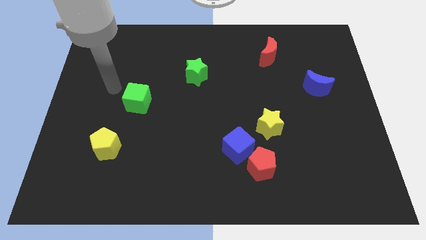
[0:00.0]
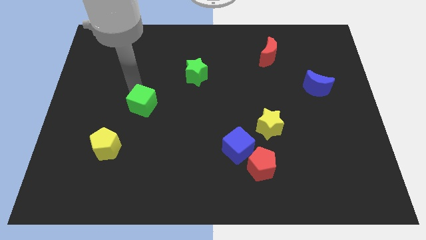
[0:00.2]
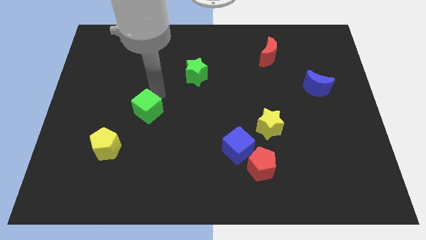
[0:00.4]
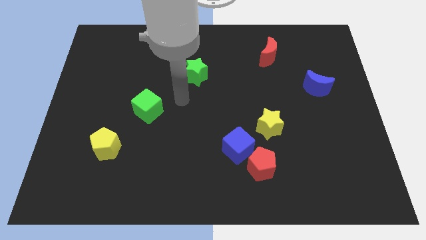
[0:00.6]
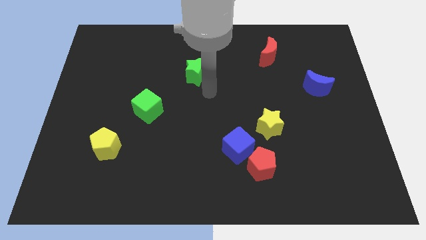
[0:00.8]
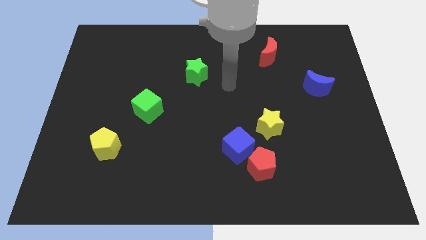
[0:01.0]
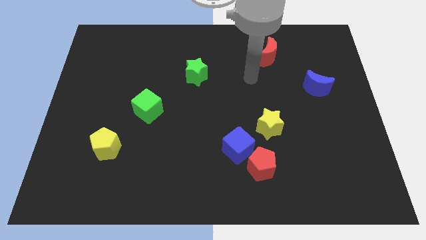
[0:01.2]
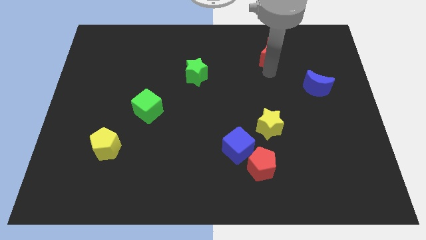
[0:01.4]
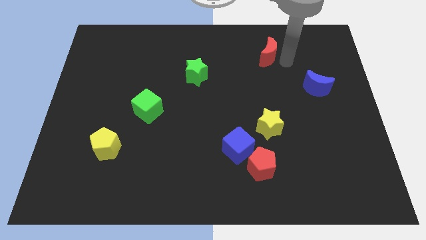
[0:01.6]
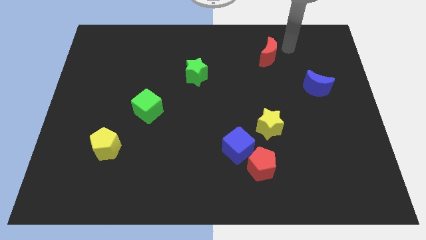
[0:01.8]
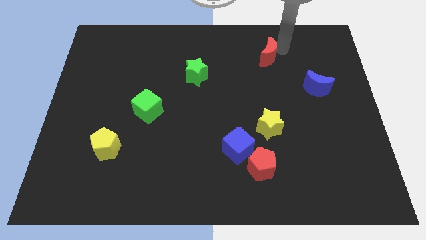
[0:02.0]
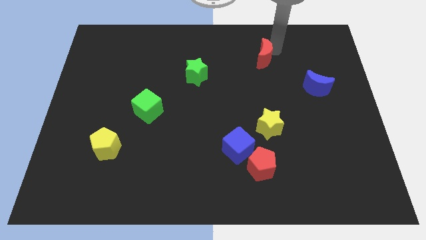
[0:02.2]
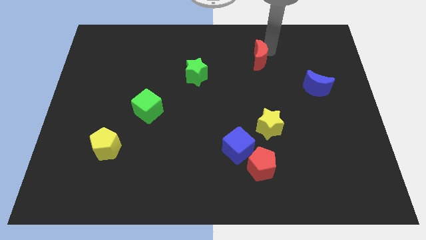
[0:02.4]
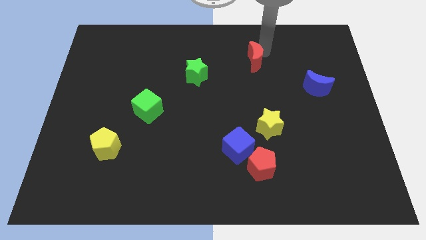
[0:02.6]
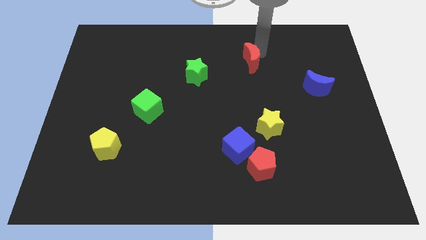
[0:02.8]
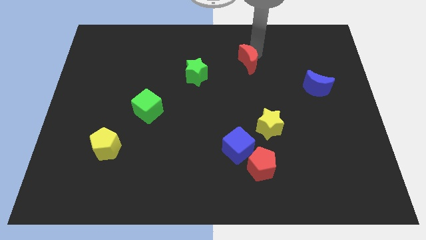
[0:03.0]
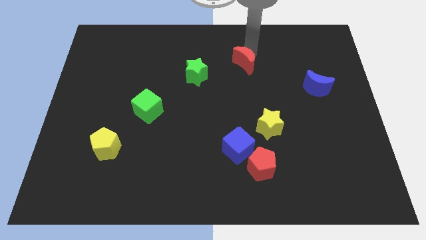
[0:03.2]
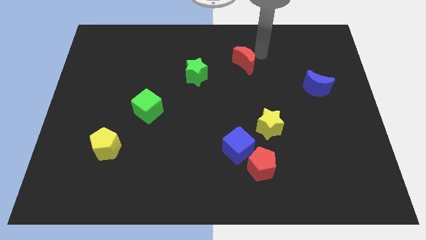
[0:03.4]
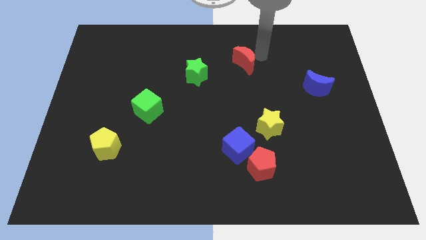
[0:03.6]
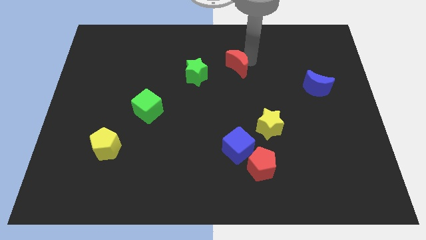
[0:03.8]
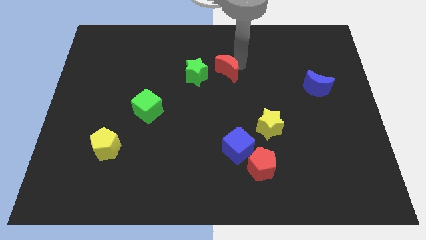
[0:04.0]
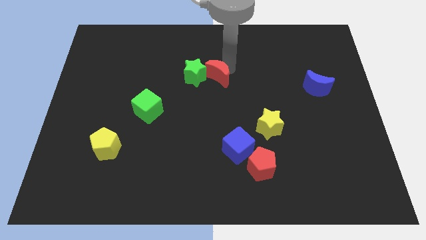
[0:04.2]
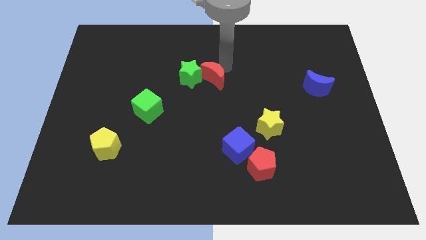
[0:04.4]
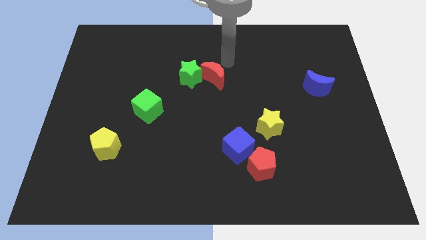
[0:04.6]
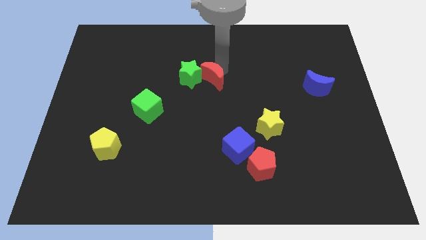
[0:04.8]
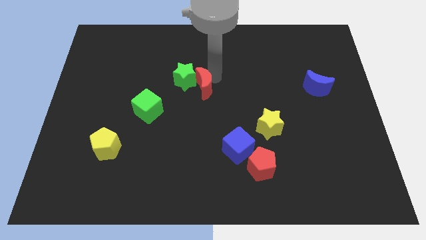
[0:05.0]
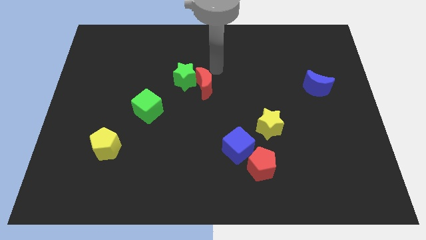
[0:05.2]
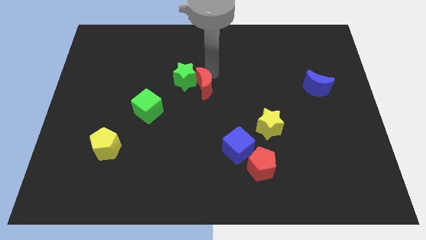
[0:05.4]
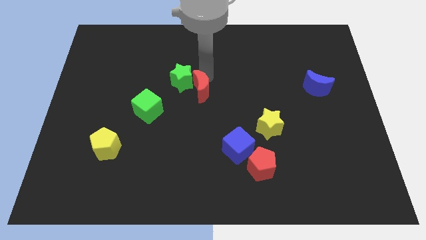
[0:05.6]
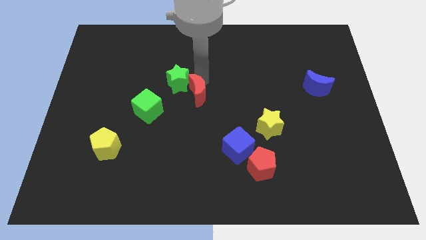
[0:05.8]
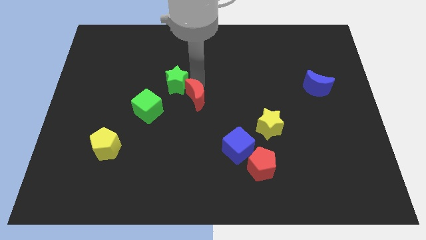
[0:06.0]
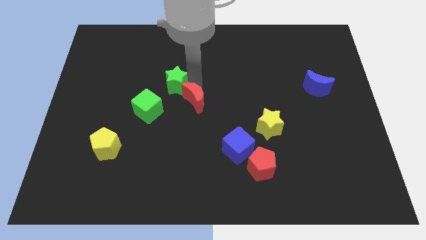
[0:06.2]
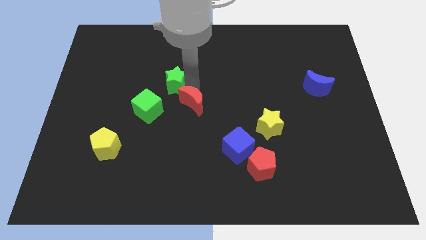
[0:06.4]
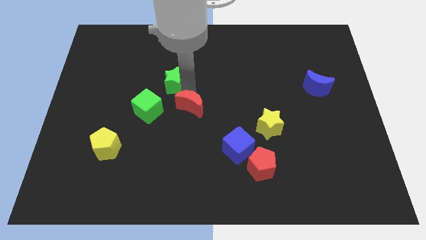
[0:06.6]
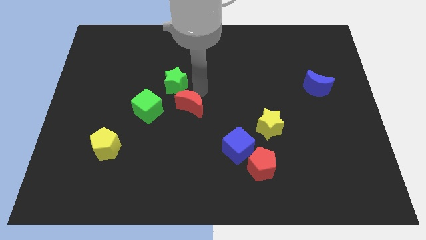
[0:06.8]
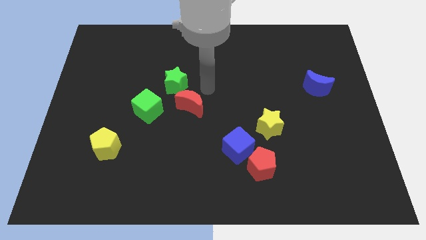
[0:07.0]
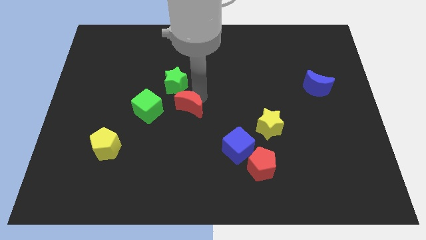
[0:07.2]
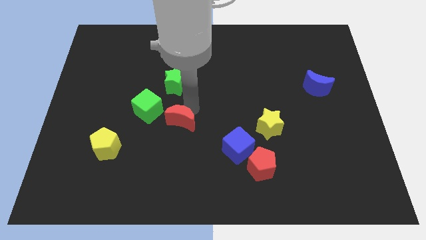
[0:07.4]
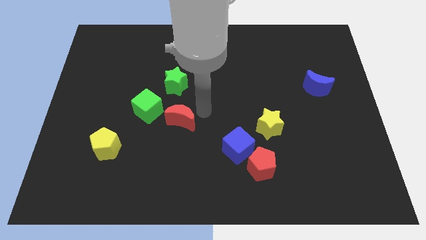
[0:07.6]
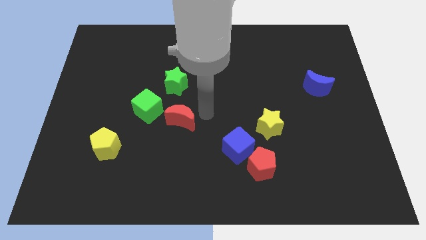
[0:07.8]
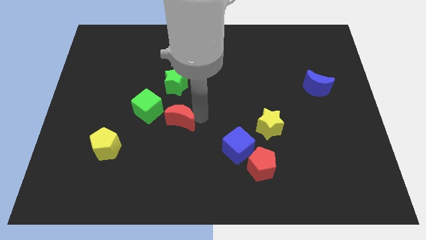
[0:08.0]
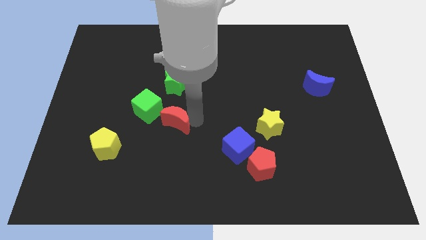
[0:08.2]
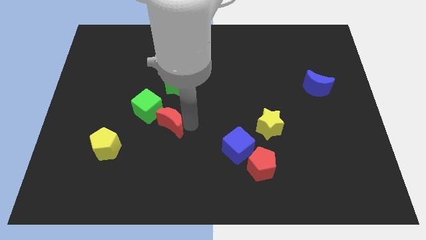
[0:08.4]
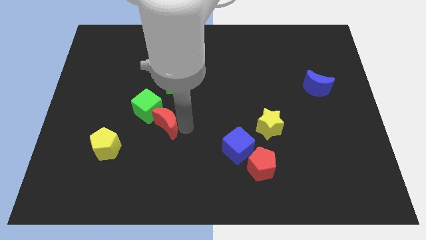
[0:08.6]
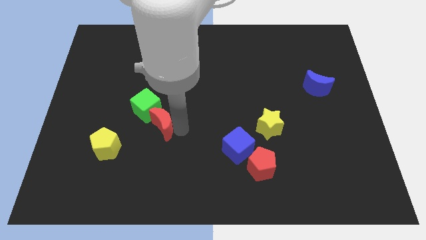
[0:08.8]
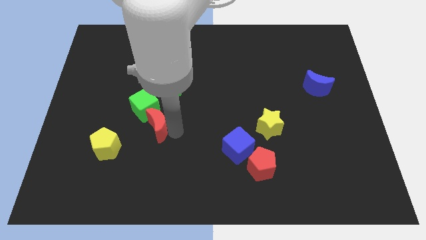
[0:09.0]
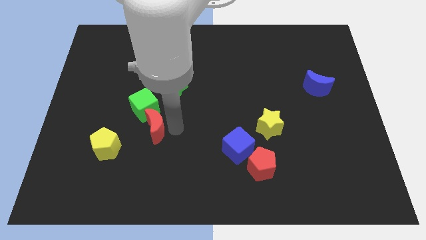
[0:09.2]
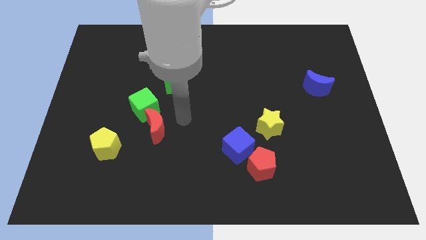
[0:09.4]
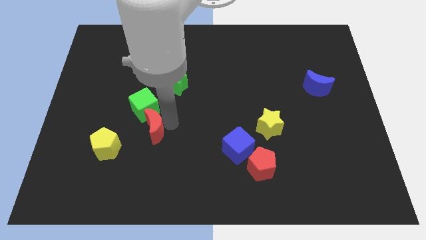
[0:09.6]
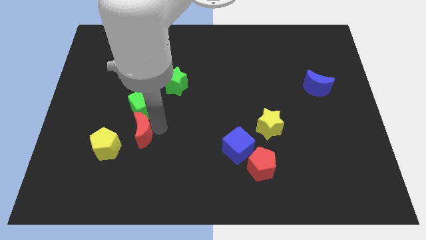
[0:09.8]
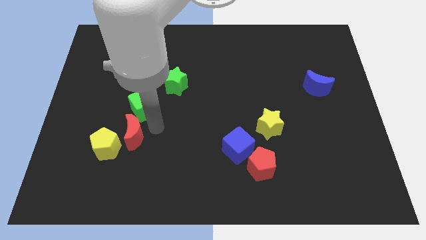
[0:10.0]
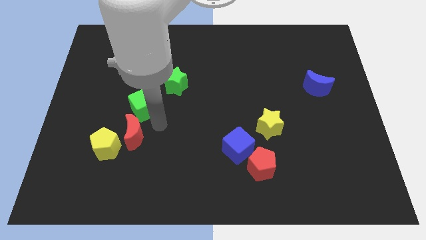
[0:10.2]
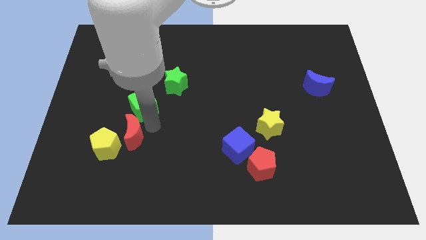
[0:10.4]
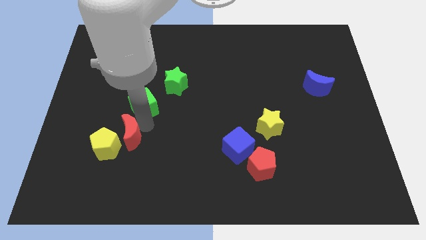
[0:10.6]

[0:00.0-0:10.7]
move the red moon close to the yellow pentagon

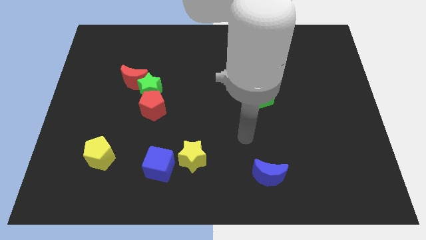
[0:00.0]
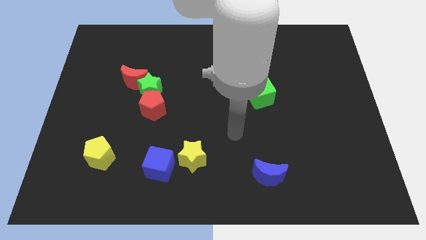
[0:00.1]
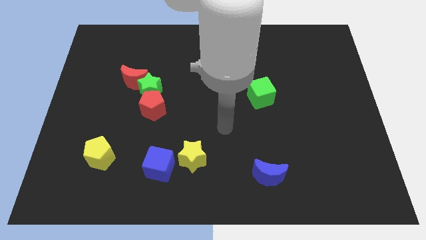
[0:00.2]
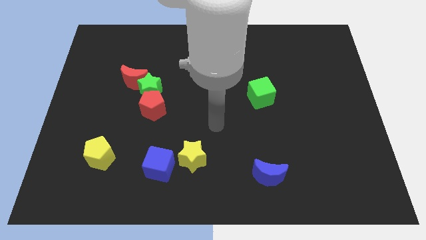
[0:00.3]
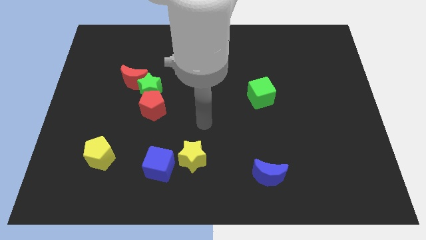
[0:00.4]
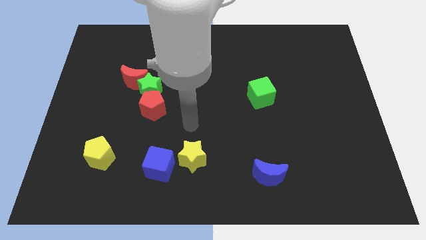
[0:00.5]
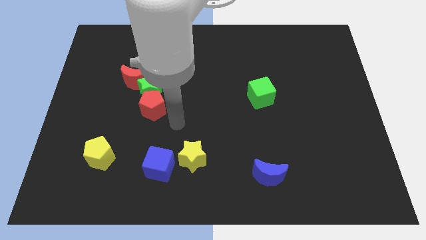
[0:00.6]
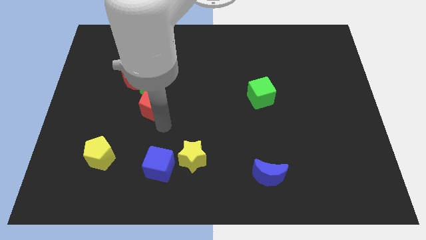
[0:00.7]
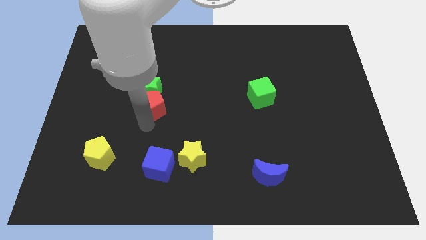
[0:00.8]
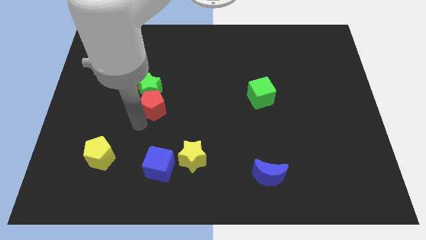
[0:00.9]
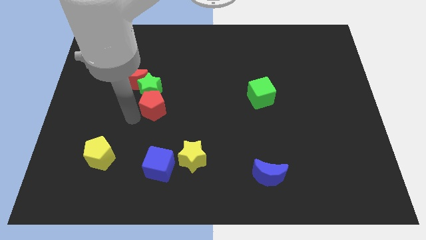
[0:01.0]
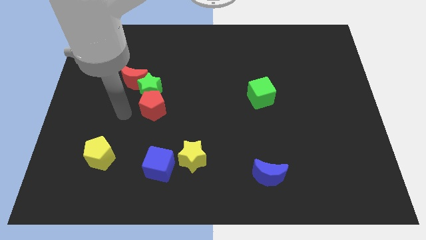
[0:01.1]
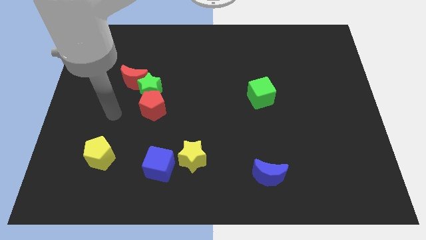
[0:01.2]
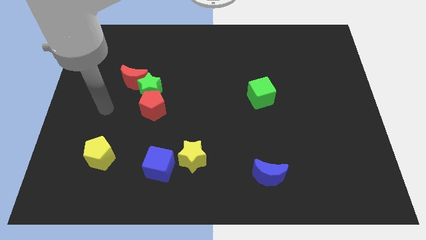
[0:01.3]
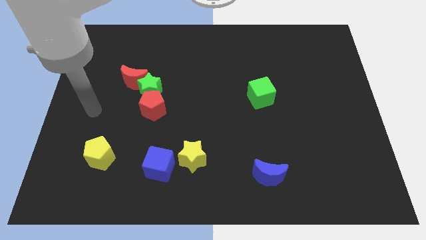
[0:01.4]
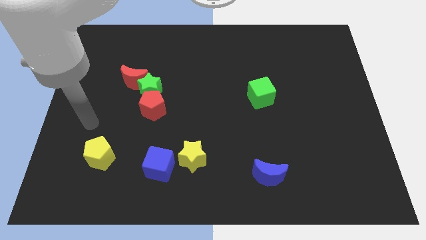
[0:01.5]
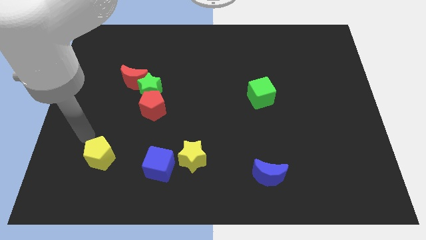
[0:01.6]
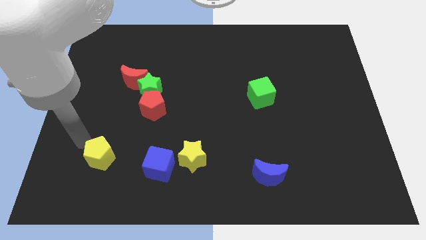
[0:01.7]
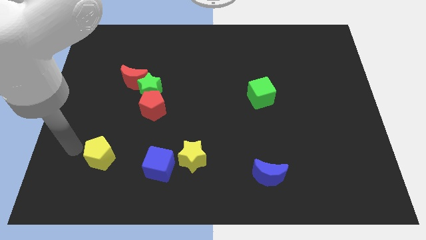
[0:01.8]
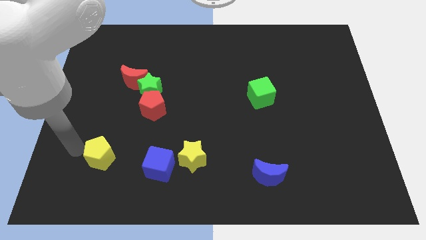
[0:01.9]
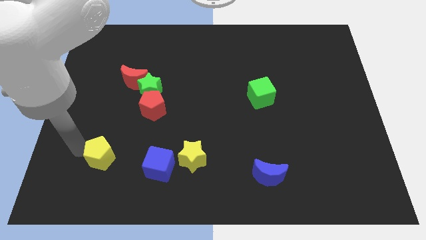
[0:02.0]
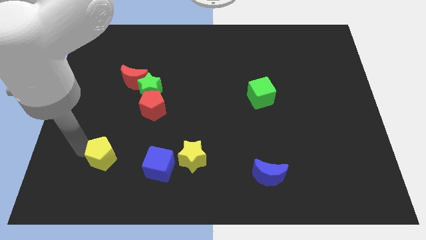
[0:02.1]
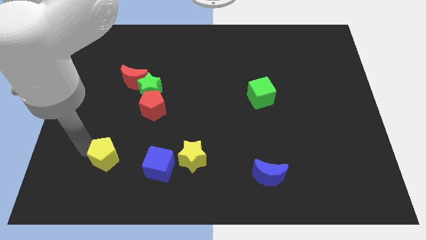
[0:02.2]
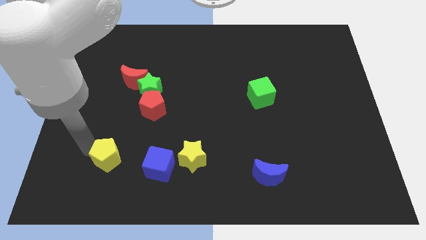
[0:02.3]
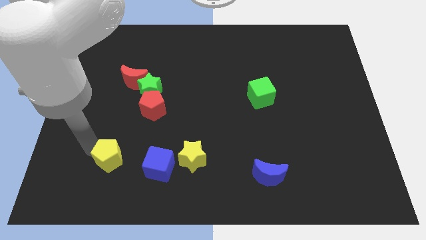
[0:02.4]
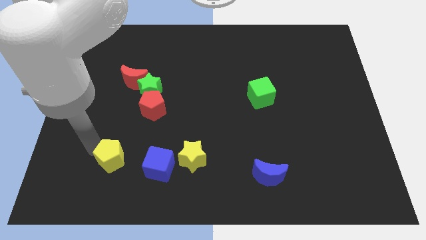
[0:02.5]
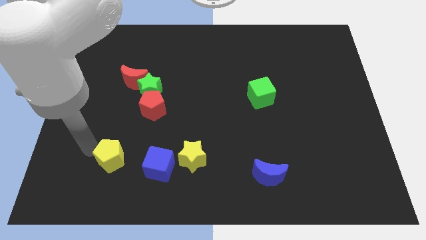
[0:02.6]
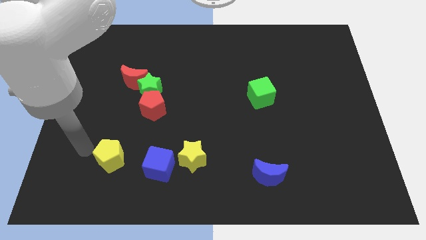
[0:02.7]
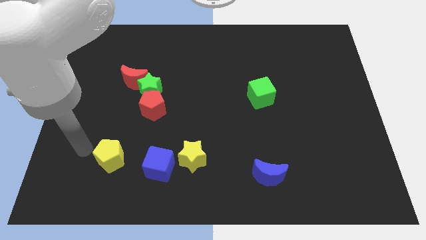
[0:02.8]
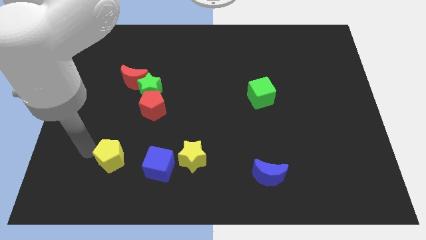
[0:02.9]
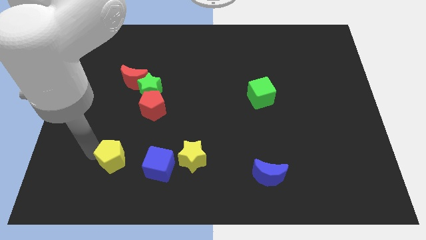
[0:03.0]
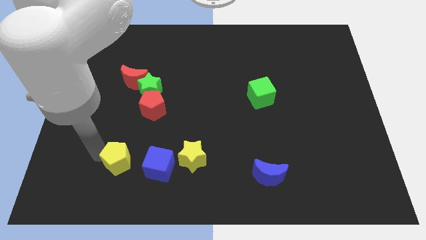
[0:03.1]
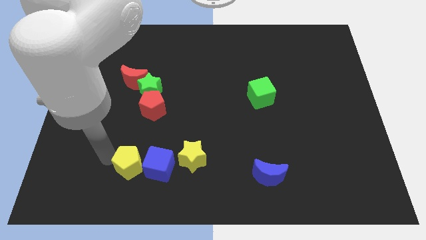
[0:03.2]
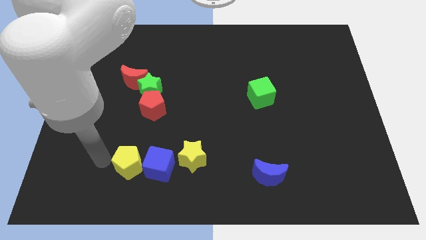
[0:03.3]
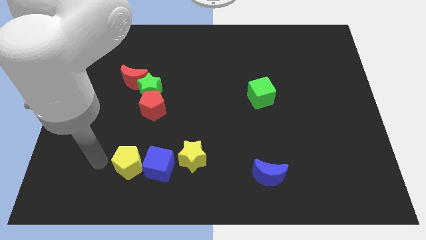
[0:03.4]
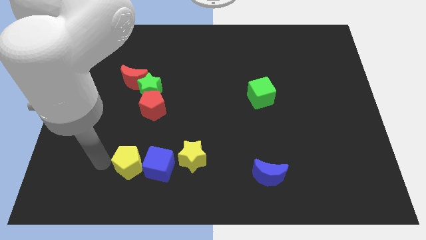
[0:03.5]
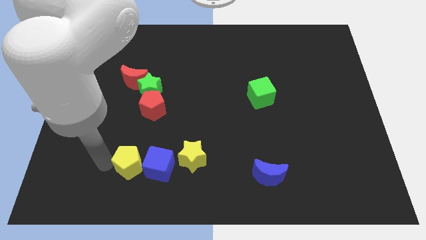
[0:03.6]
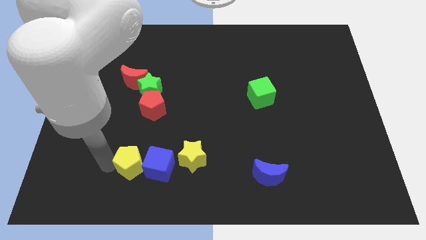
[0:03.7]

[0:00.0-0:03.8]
move the yellow pentagon close to the blue cube
